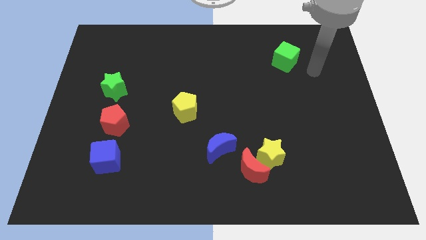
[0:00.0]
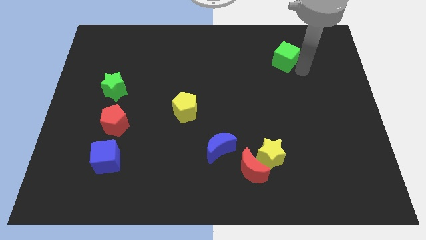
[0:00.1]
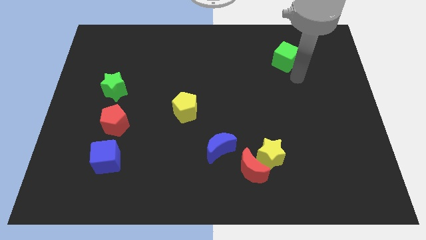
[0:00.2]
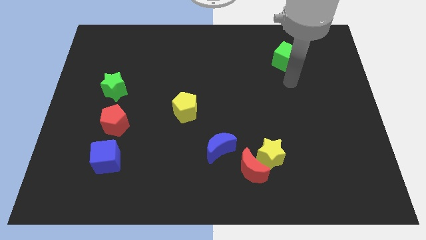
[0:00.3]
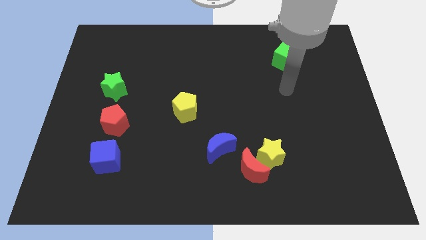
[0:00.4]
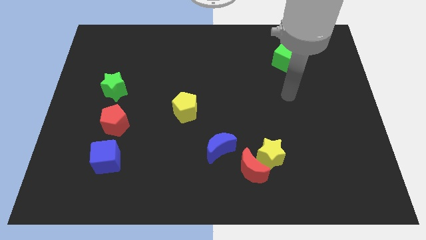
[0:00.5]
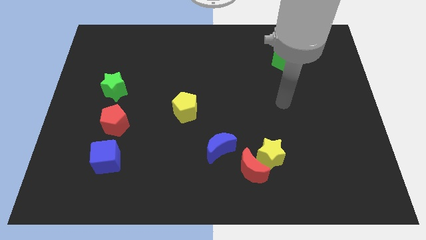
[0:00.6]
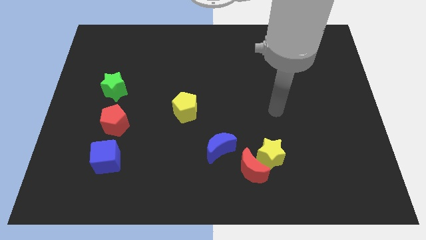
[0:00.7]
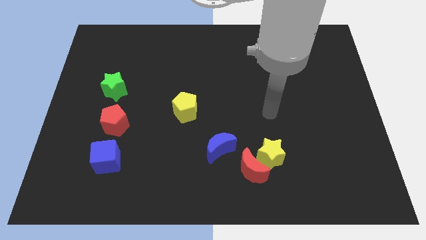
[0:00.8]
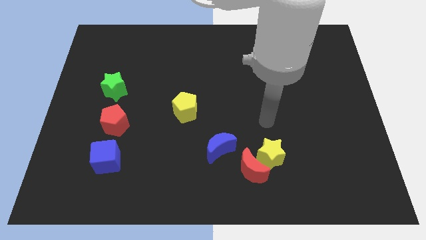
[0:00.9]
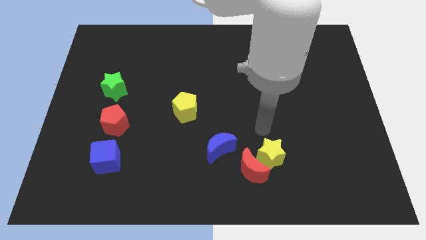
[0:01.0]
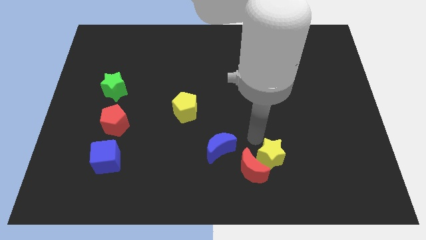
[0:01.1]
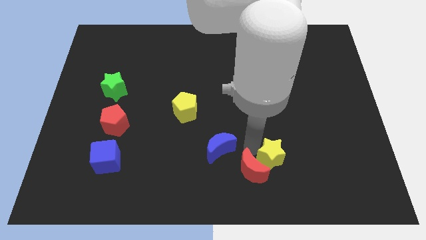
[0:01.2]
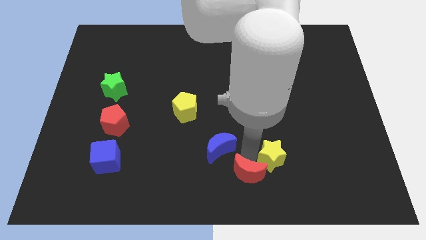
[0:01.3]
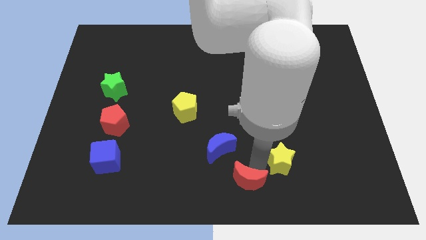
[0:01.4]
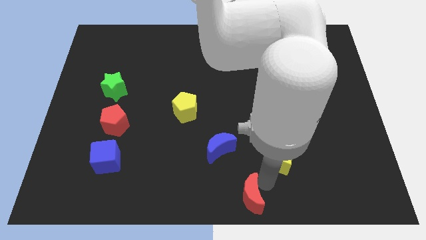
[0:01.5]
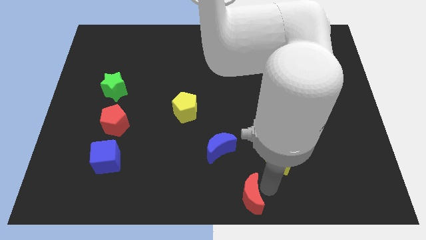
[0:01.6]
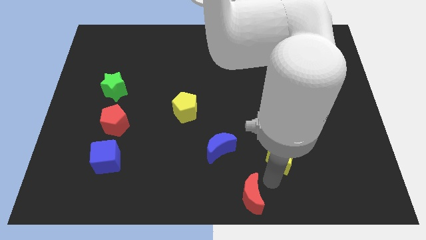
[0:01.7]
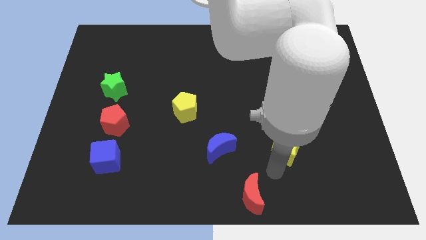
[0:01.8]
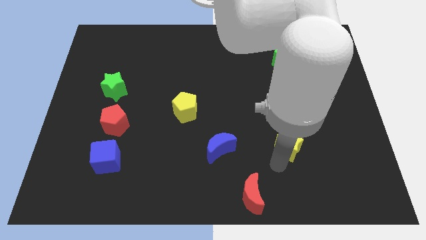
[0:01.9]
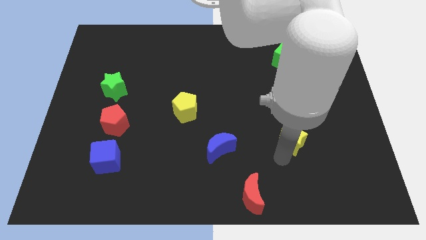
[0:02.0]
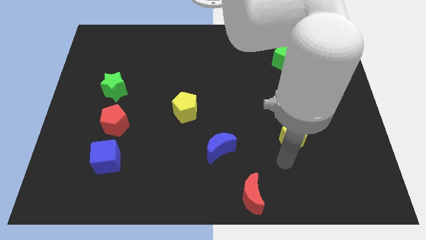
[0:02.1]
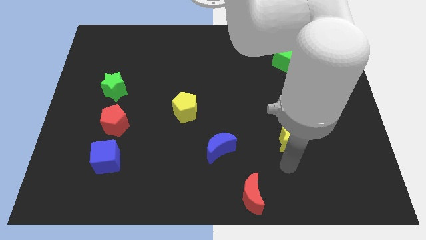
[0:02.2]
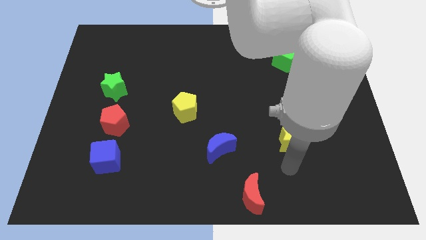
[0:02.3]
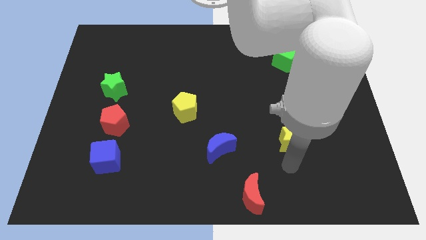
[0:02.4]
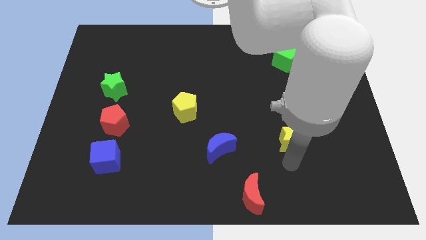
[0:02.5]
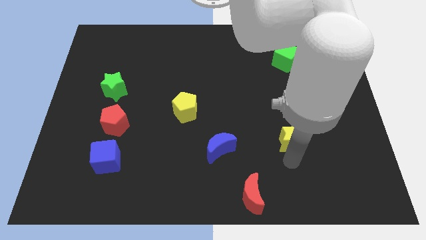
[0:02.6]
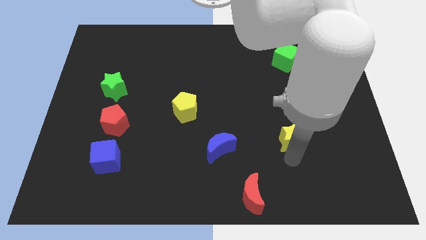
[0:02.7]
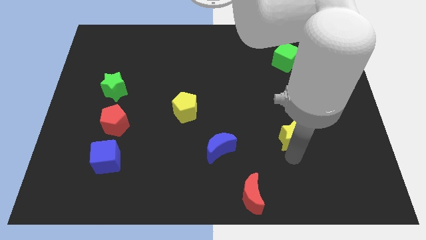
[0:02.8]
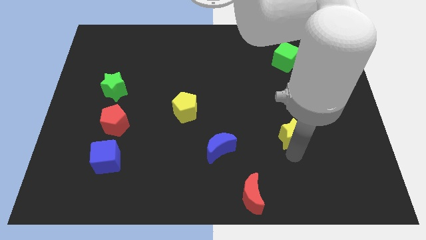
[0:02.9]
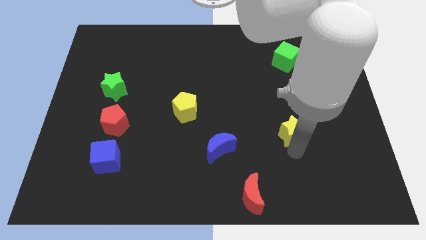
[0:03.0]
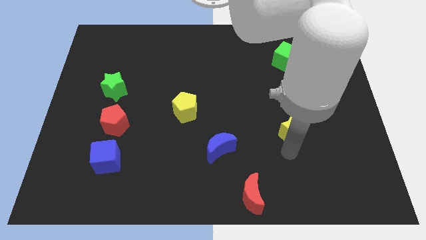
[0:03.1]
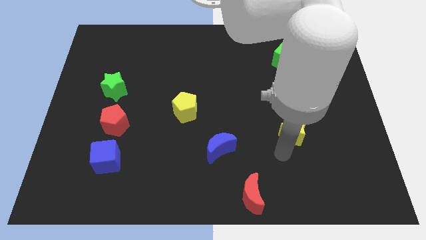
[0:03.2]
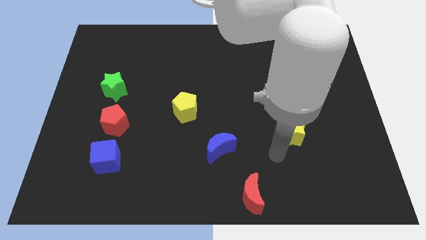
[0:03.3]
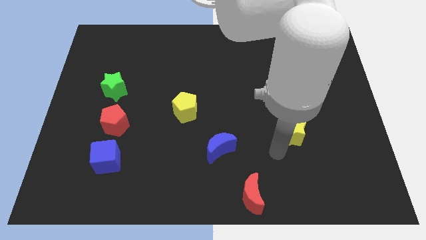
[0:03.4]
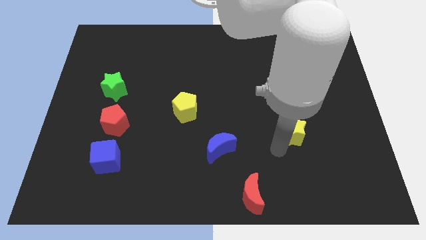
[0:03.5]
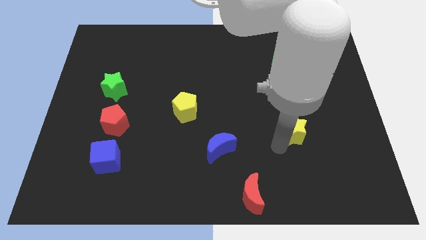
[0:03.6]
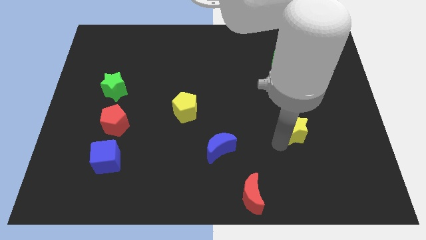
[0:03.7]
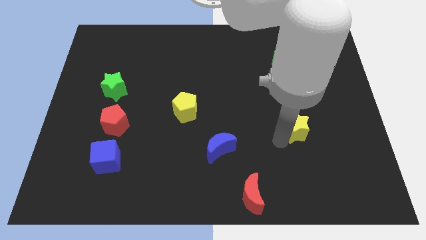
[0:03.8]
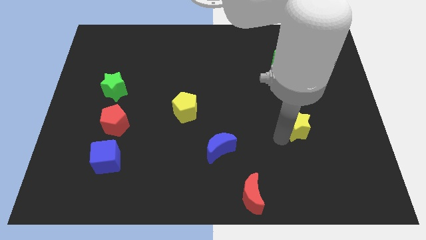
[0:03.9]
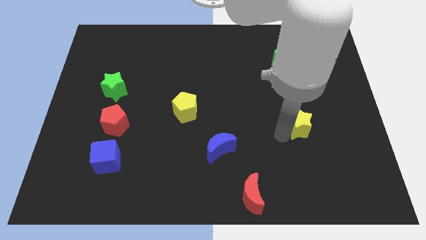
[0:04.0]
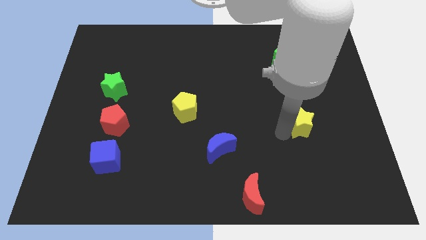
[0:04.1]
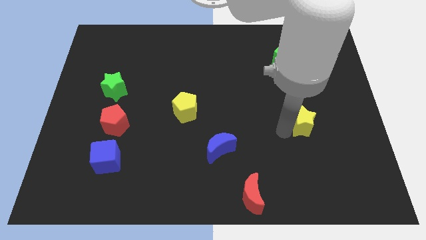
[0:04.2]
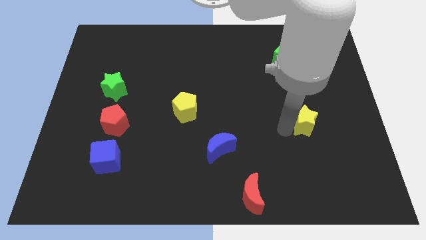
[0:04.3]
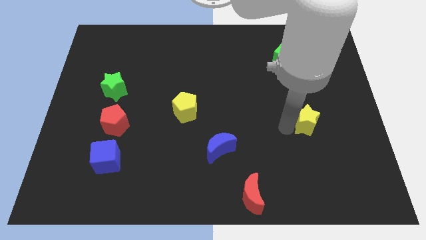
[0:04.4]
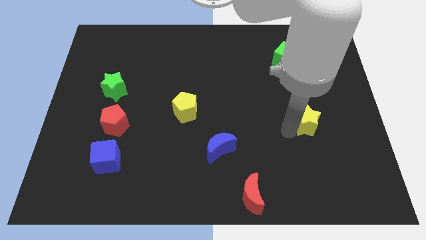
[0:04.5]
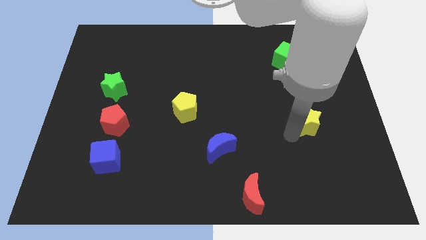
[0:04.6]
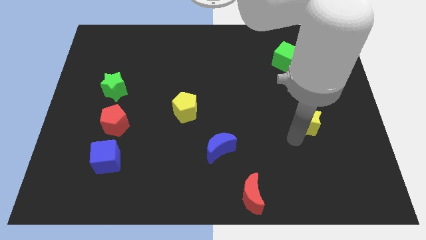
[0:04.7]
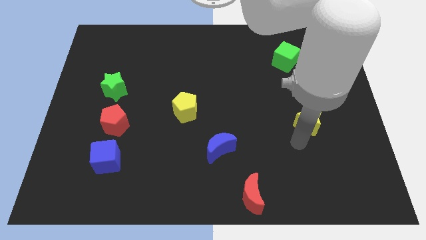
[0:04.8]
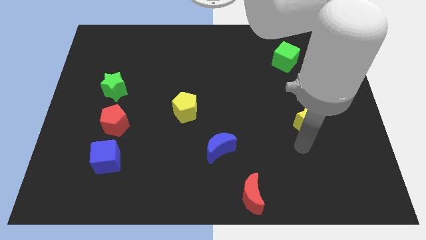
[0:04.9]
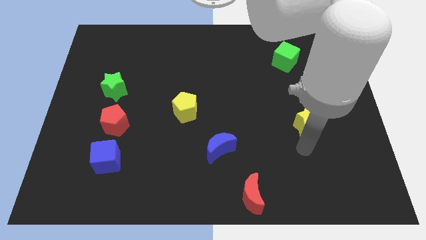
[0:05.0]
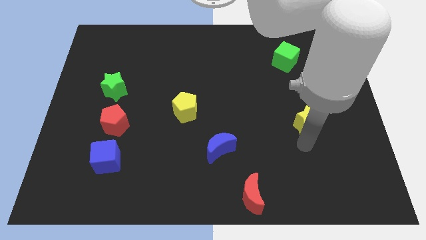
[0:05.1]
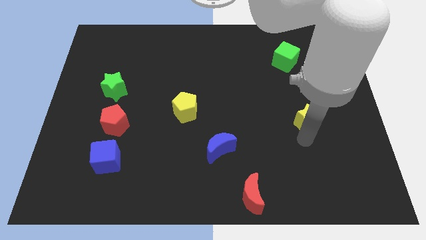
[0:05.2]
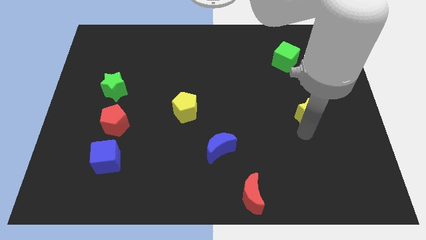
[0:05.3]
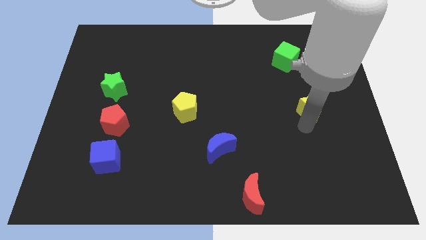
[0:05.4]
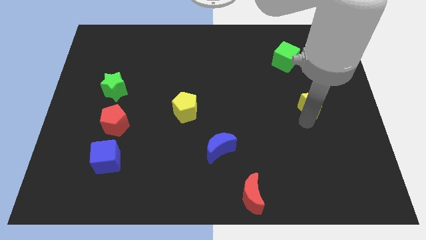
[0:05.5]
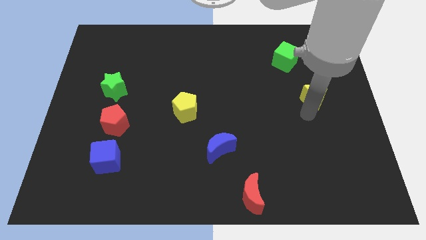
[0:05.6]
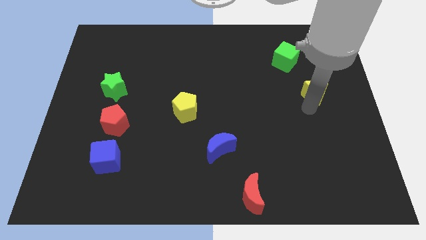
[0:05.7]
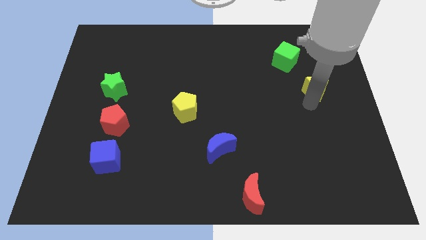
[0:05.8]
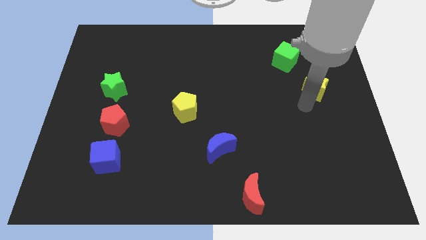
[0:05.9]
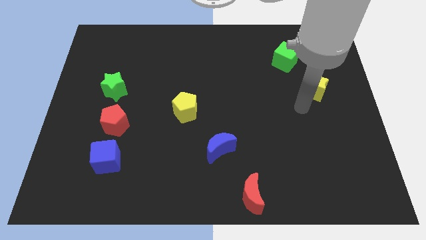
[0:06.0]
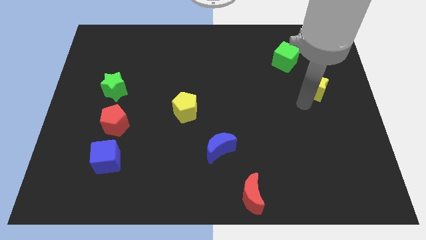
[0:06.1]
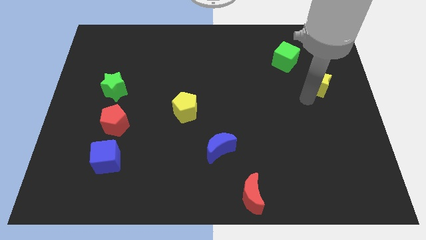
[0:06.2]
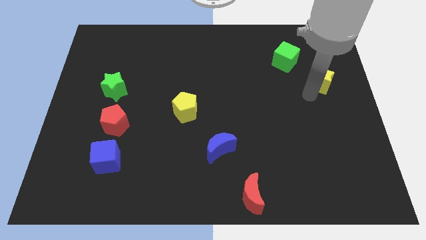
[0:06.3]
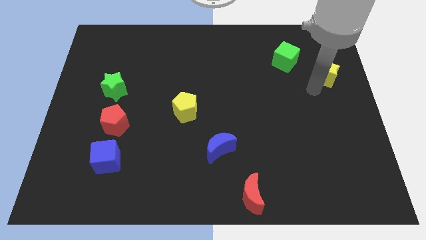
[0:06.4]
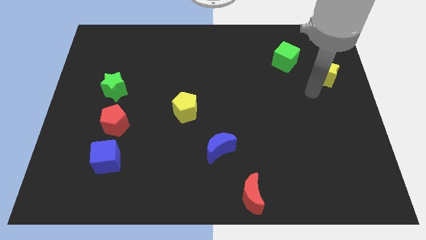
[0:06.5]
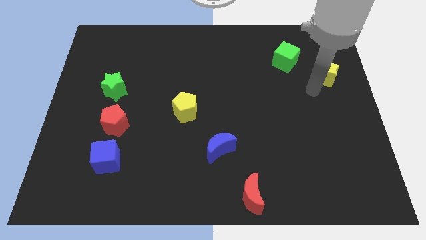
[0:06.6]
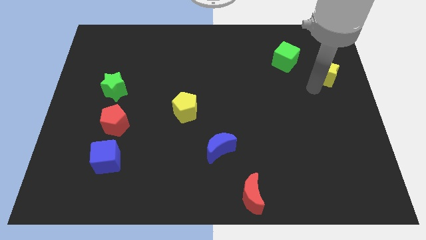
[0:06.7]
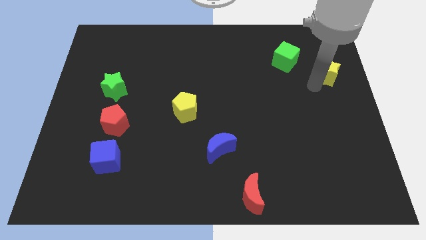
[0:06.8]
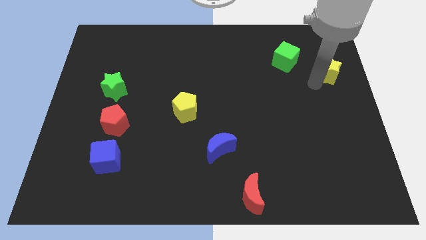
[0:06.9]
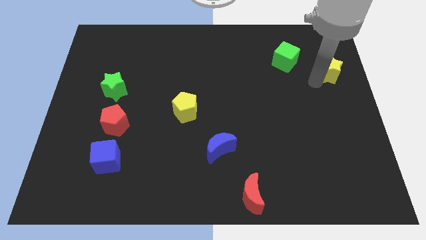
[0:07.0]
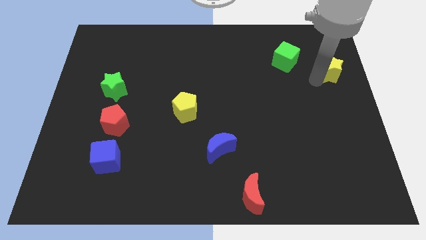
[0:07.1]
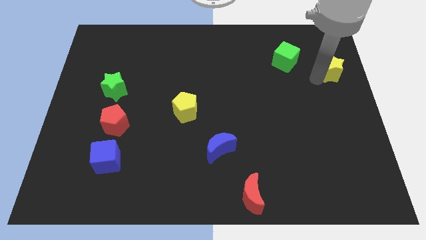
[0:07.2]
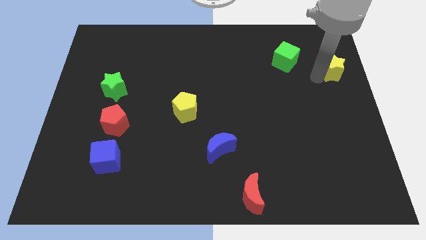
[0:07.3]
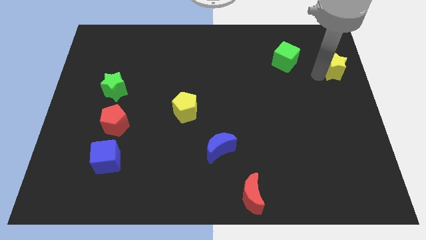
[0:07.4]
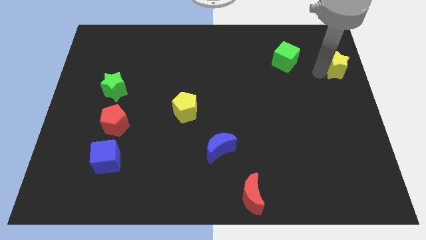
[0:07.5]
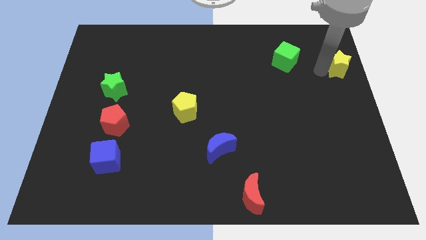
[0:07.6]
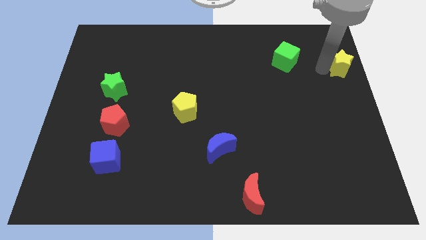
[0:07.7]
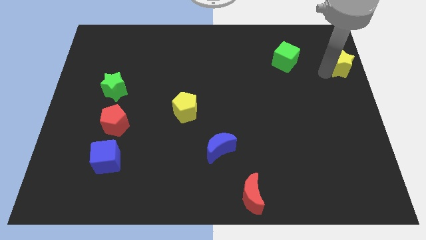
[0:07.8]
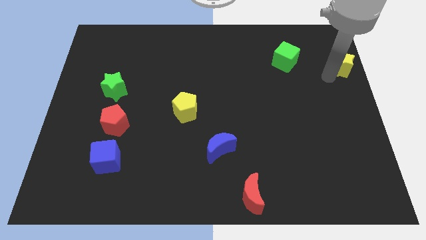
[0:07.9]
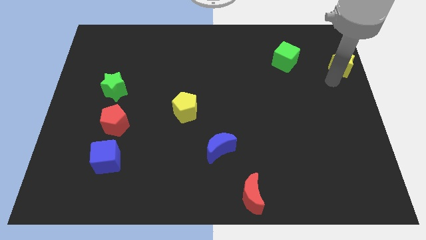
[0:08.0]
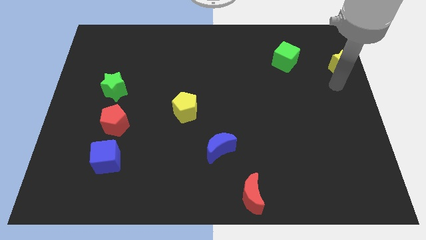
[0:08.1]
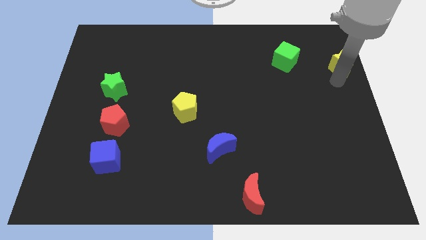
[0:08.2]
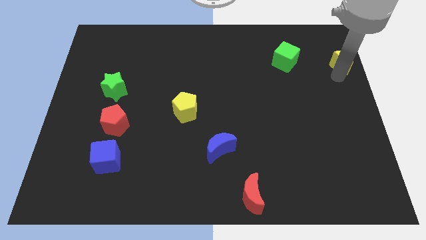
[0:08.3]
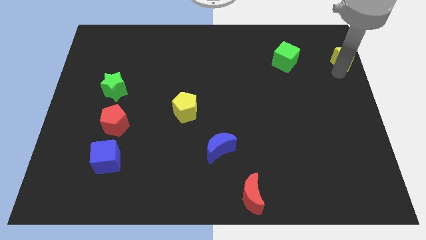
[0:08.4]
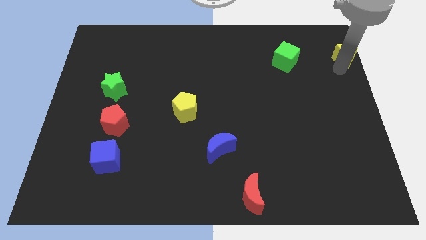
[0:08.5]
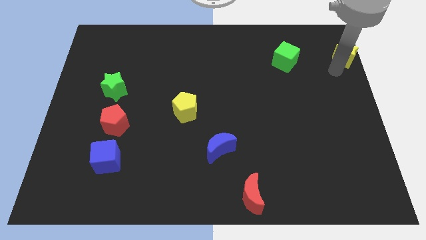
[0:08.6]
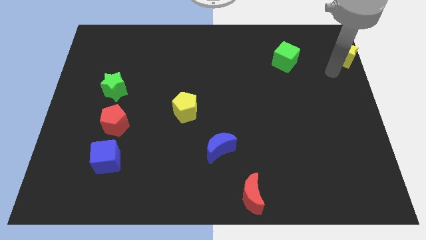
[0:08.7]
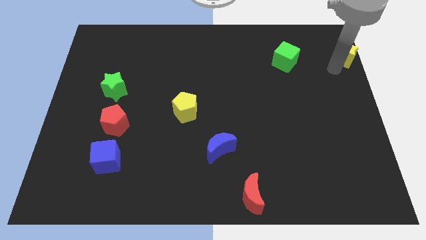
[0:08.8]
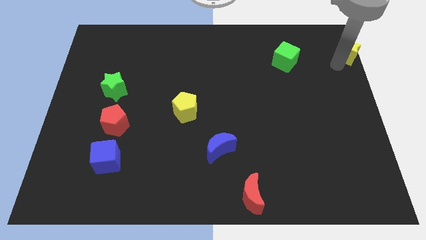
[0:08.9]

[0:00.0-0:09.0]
slide the yellow star to the upper right corner
